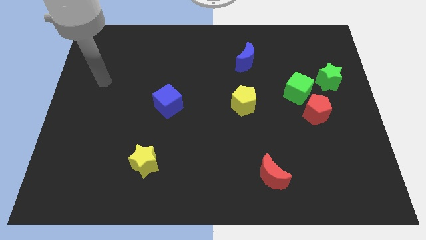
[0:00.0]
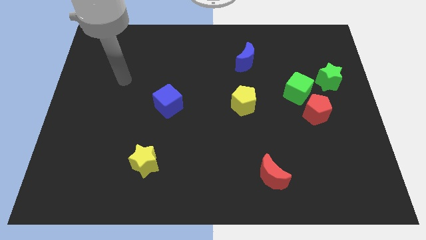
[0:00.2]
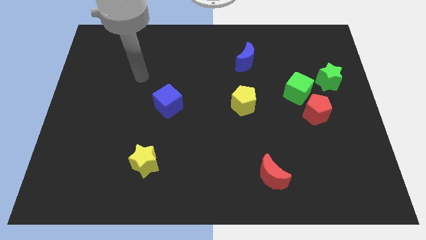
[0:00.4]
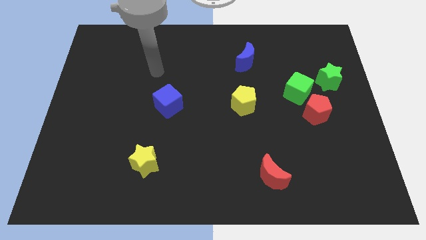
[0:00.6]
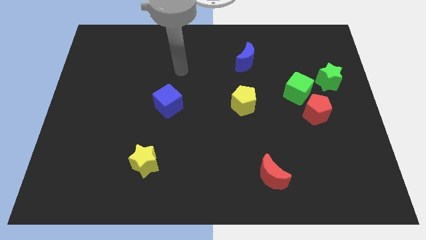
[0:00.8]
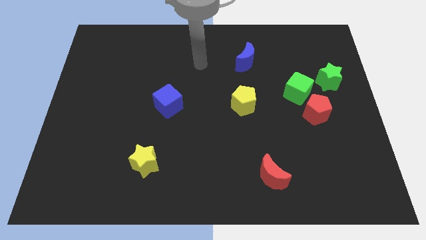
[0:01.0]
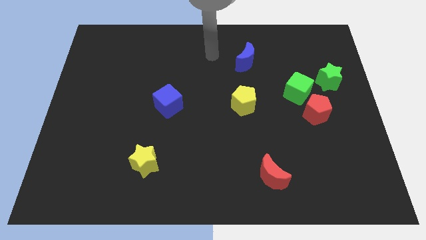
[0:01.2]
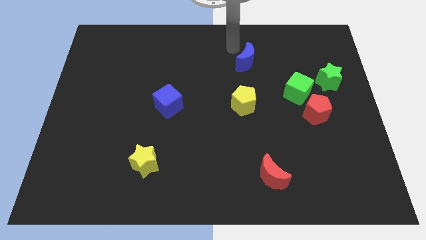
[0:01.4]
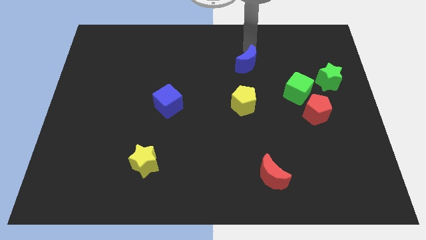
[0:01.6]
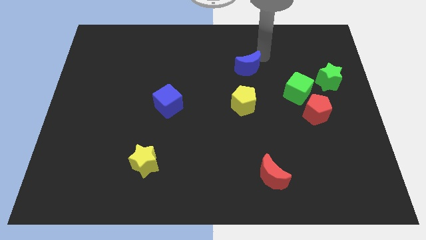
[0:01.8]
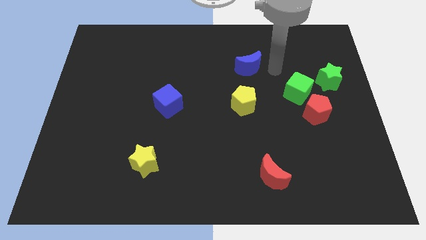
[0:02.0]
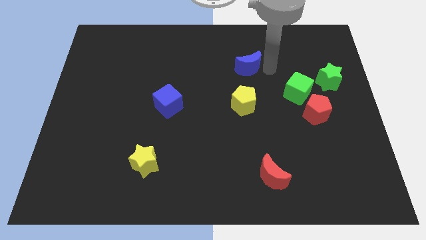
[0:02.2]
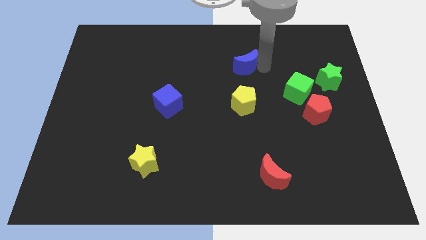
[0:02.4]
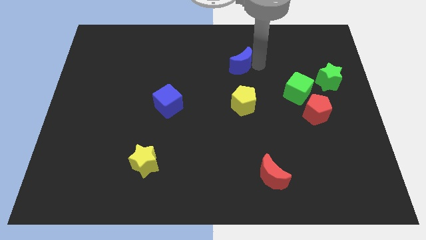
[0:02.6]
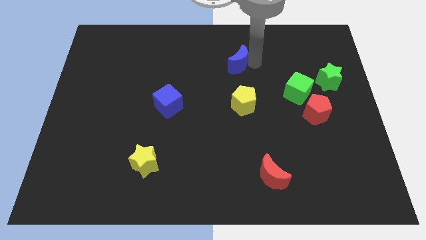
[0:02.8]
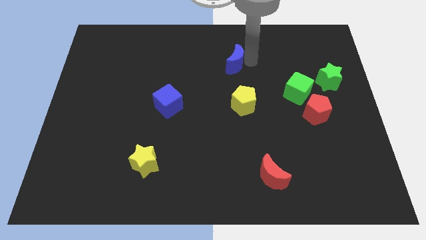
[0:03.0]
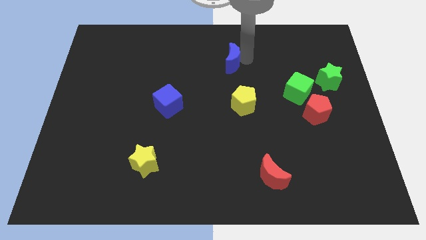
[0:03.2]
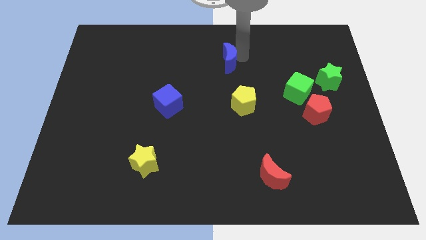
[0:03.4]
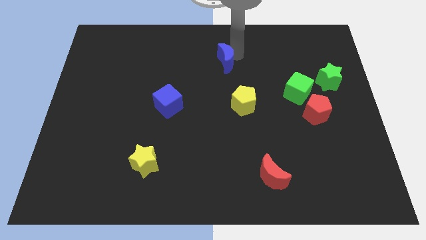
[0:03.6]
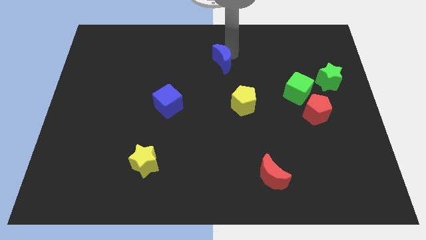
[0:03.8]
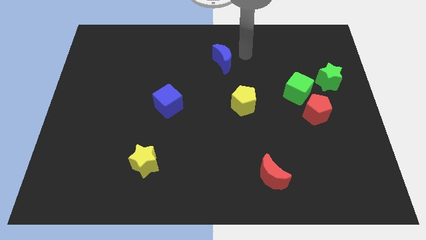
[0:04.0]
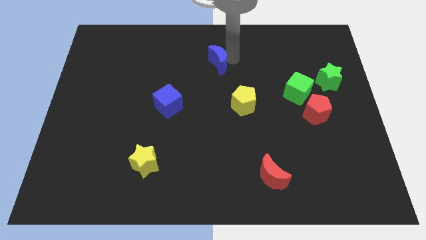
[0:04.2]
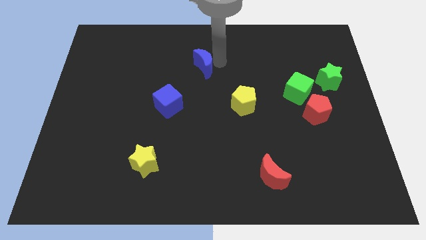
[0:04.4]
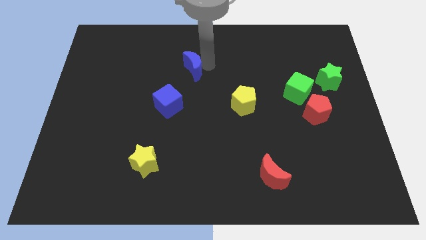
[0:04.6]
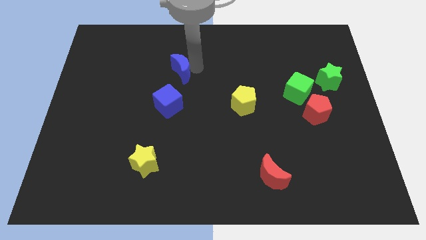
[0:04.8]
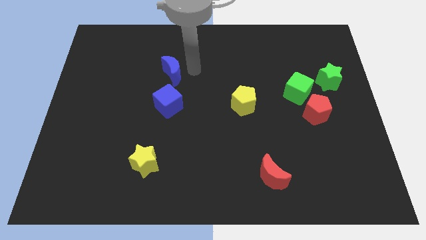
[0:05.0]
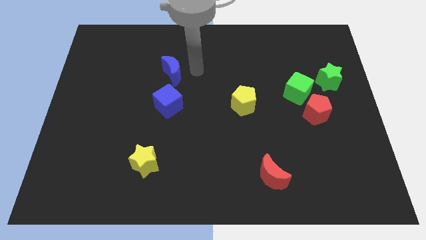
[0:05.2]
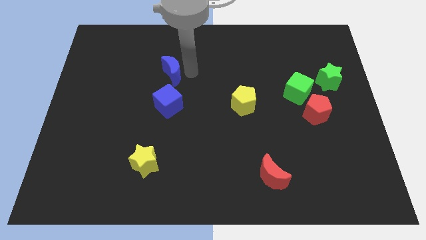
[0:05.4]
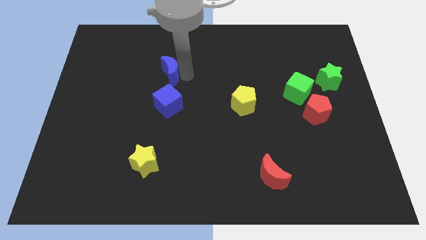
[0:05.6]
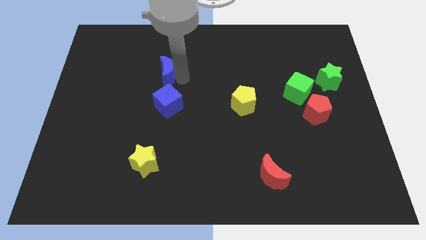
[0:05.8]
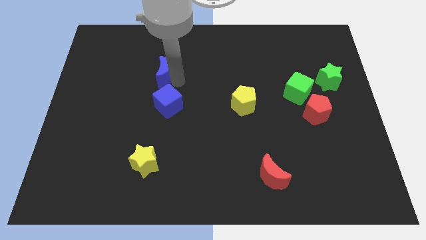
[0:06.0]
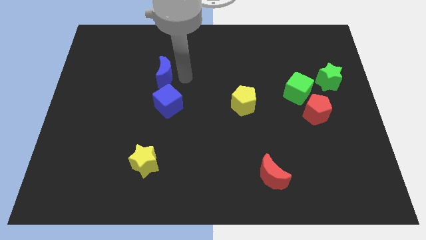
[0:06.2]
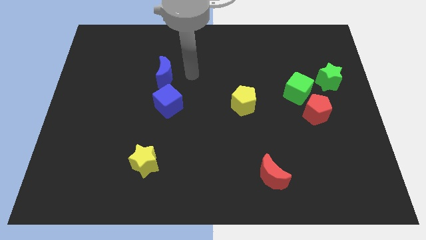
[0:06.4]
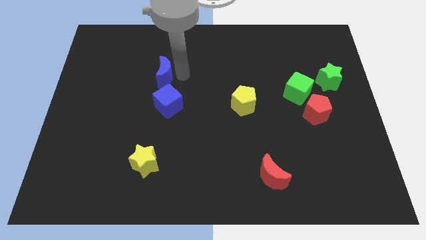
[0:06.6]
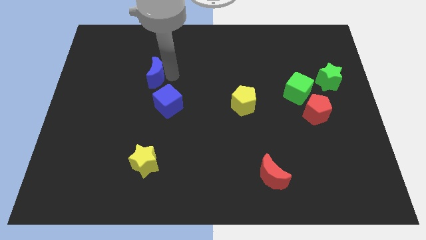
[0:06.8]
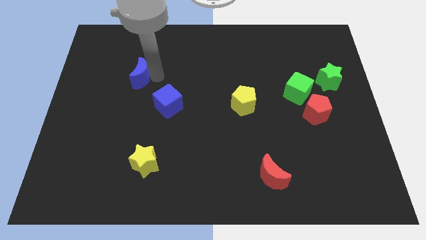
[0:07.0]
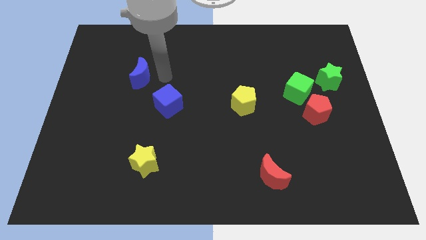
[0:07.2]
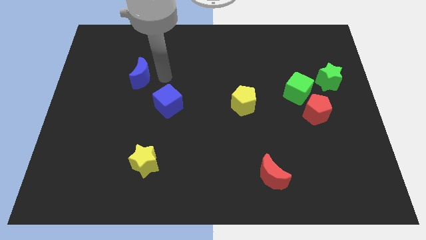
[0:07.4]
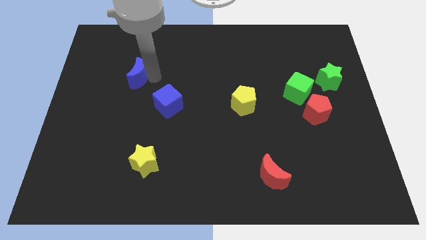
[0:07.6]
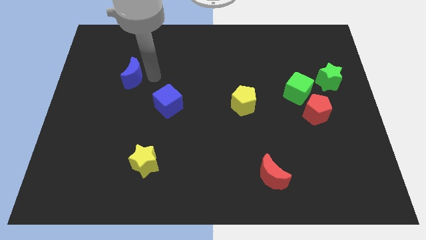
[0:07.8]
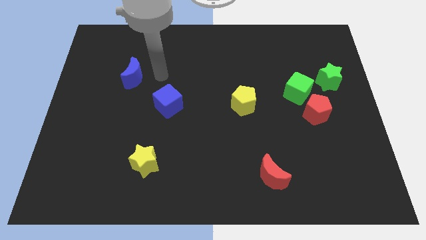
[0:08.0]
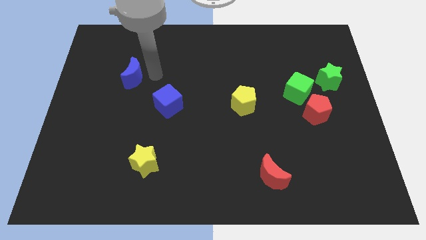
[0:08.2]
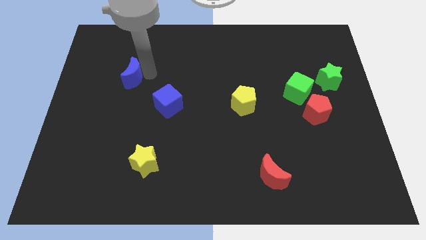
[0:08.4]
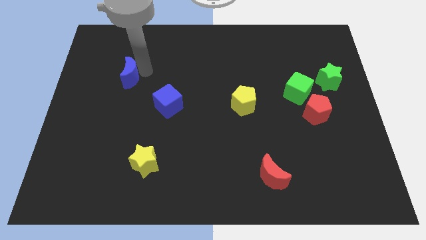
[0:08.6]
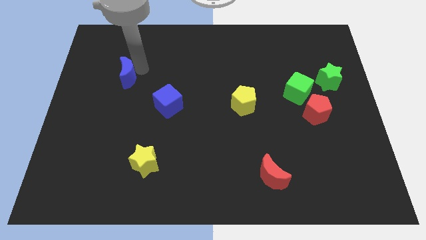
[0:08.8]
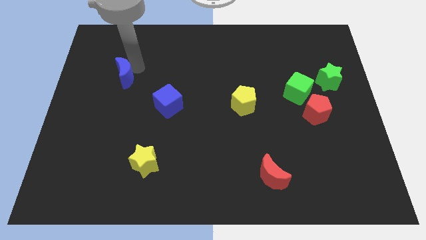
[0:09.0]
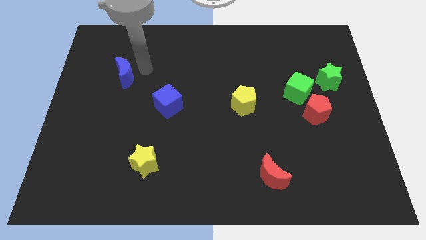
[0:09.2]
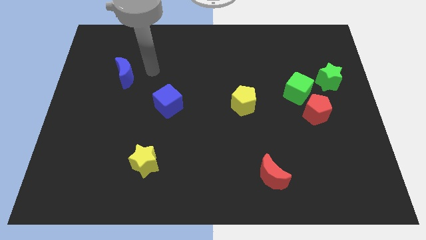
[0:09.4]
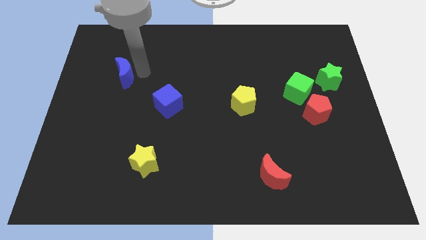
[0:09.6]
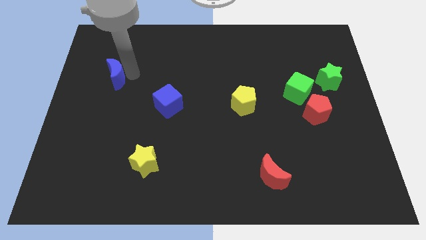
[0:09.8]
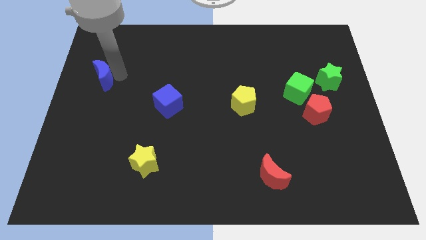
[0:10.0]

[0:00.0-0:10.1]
put the blue moon to the left side of the board

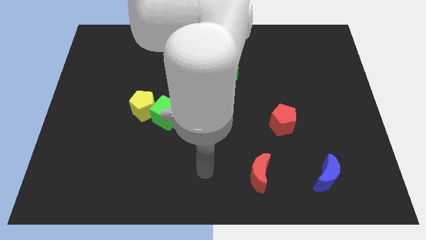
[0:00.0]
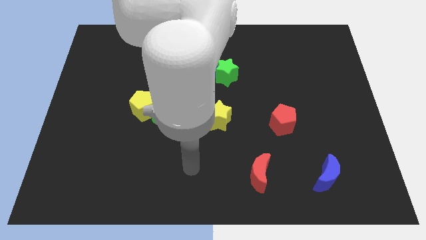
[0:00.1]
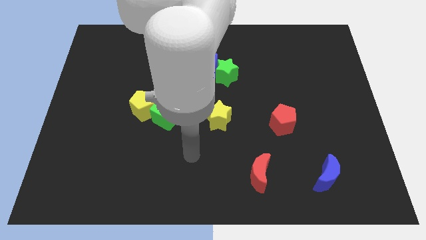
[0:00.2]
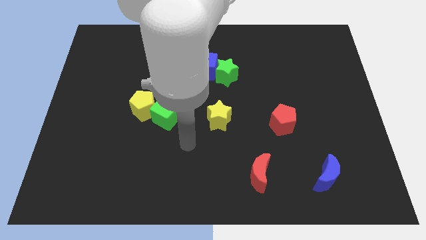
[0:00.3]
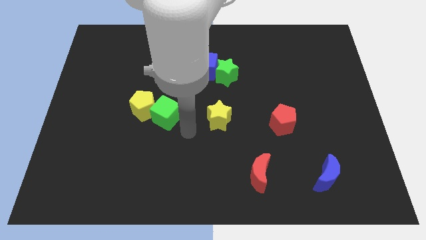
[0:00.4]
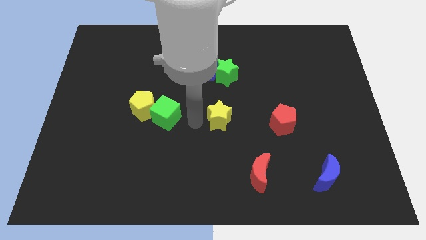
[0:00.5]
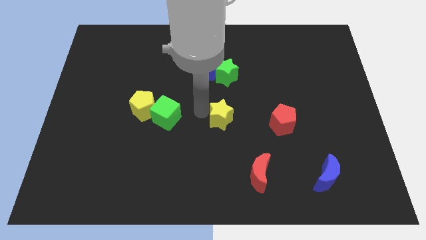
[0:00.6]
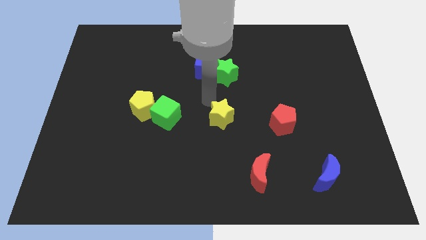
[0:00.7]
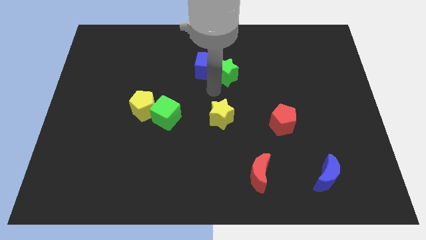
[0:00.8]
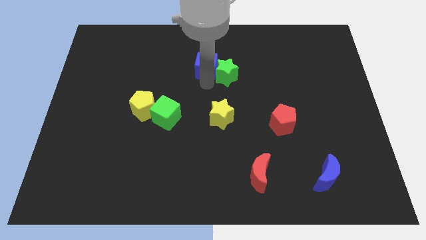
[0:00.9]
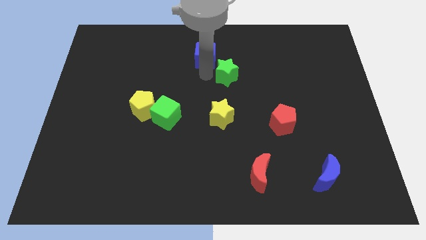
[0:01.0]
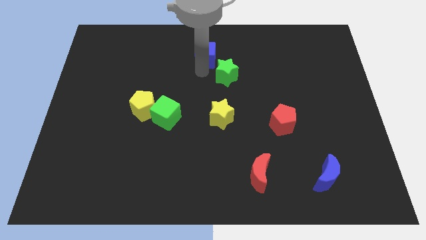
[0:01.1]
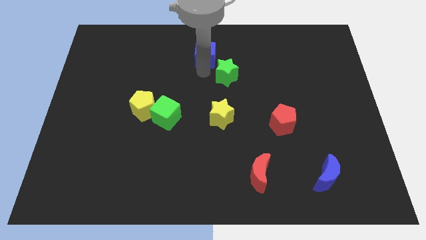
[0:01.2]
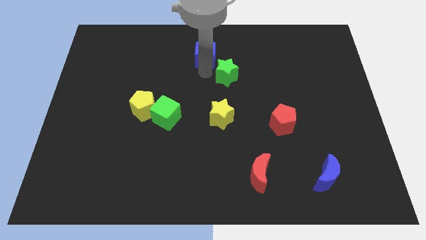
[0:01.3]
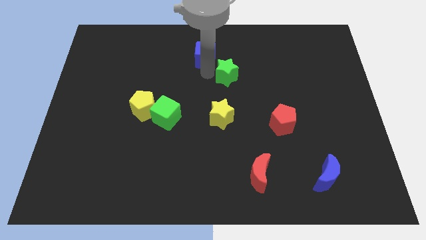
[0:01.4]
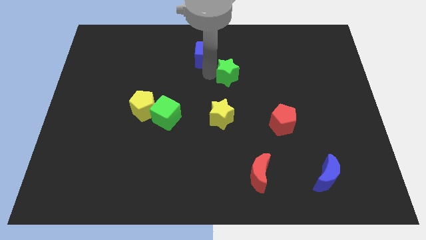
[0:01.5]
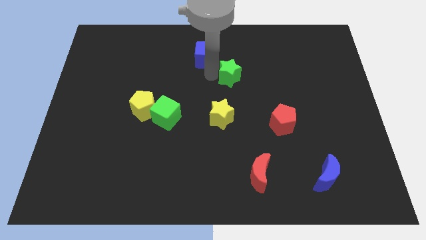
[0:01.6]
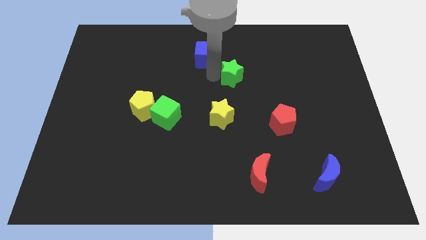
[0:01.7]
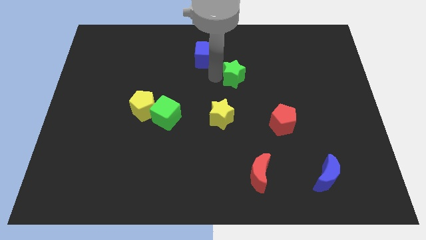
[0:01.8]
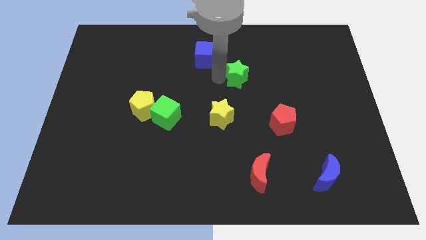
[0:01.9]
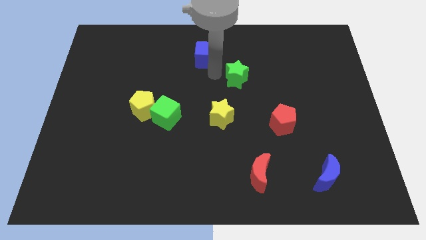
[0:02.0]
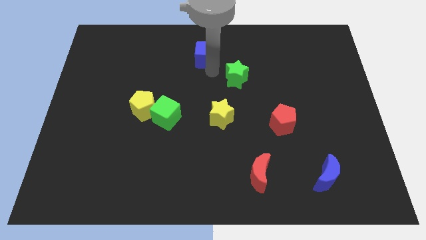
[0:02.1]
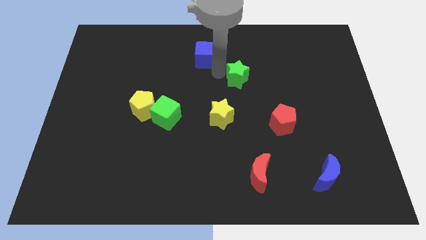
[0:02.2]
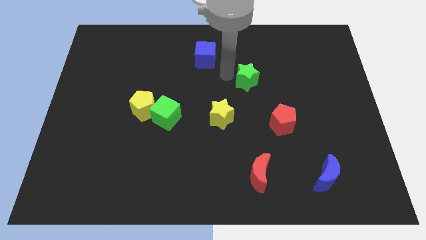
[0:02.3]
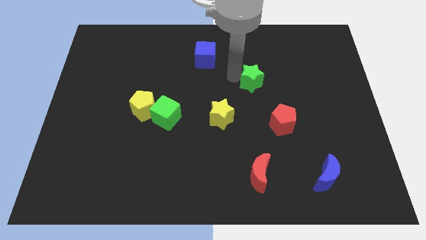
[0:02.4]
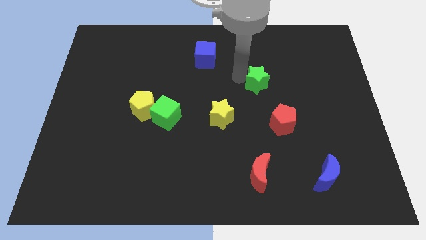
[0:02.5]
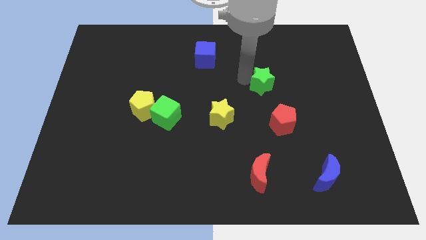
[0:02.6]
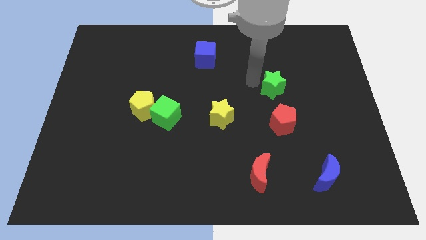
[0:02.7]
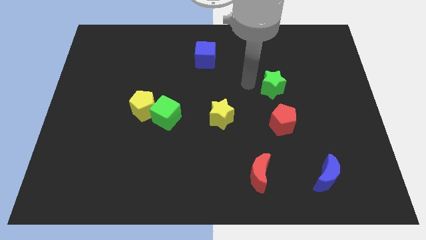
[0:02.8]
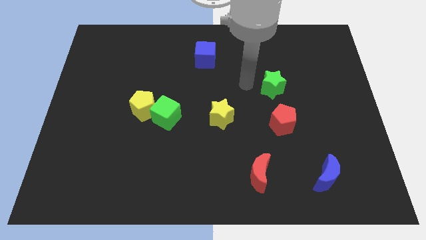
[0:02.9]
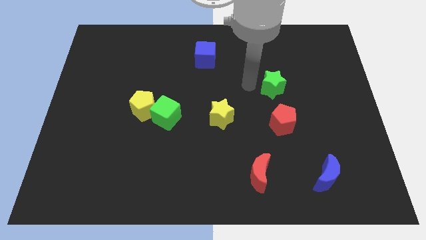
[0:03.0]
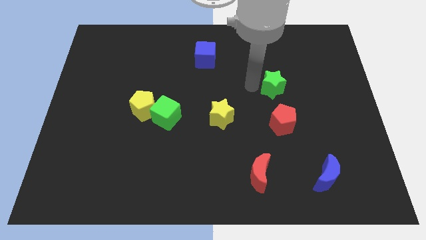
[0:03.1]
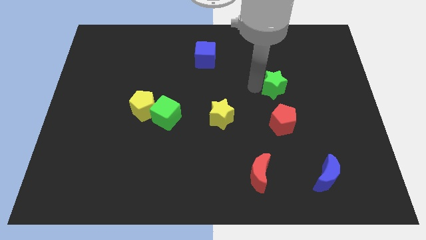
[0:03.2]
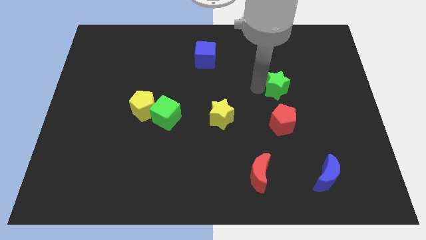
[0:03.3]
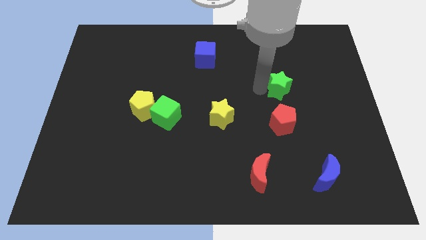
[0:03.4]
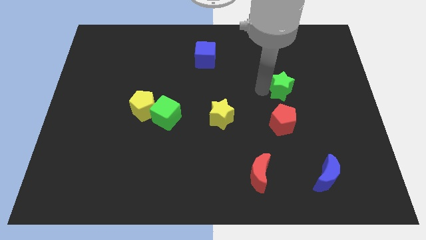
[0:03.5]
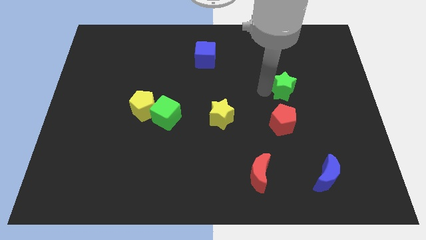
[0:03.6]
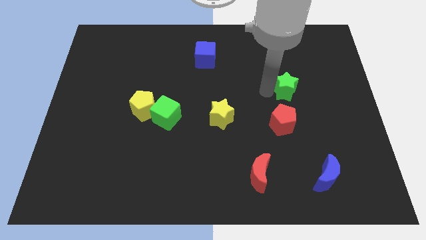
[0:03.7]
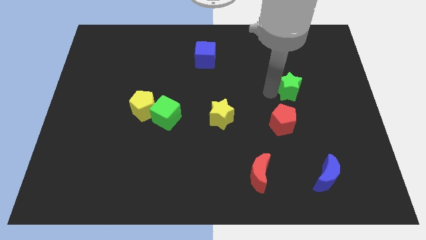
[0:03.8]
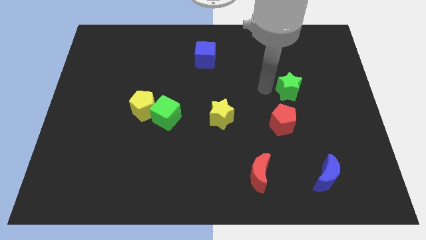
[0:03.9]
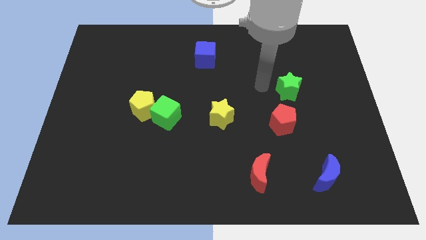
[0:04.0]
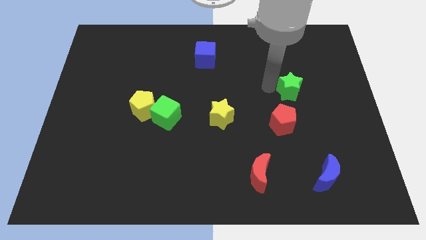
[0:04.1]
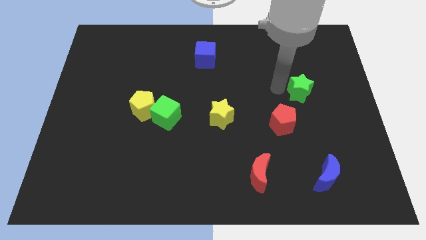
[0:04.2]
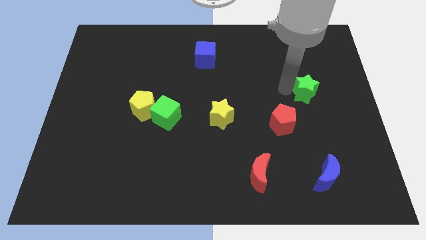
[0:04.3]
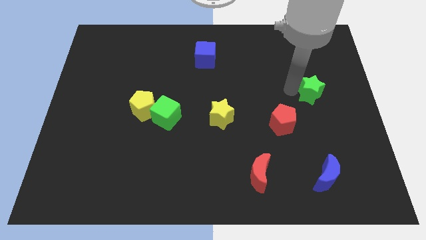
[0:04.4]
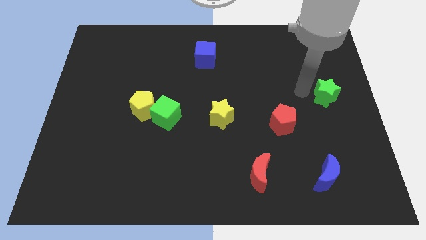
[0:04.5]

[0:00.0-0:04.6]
move the green star to the right side of the board
